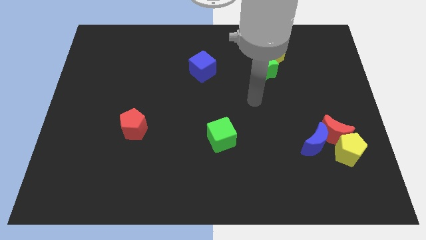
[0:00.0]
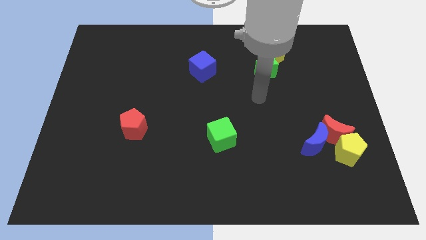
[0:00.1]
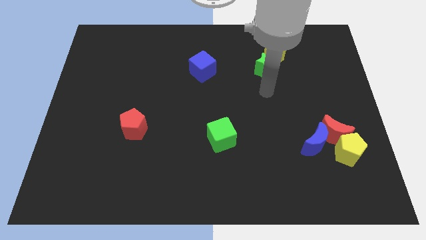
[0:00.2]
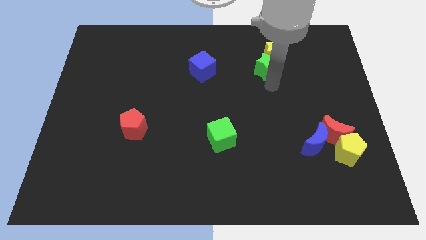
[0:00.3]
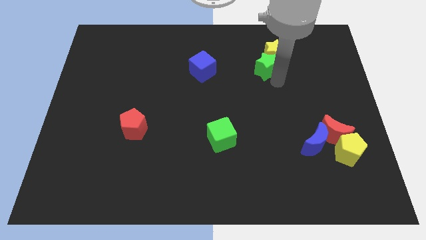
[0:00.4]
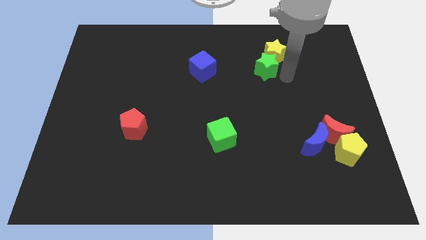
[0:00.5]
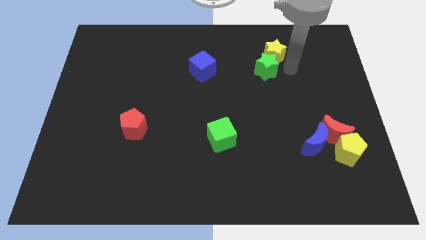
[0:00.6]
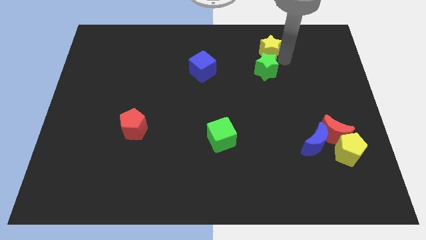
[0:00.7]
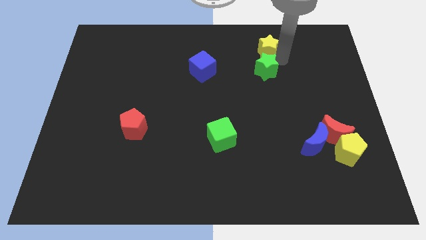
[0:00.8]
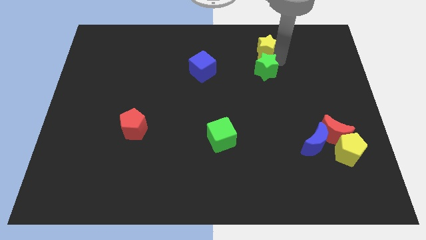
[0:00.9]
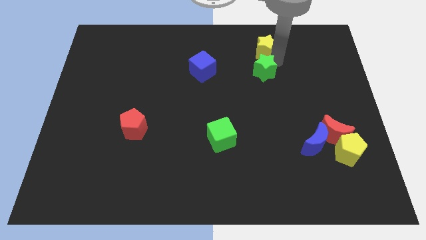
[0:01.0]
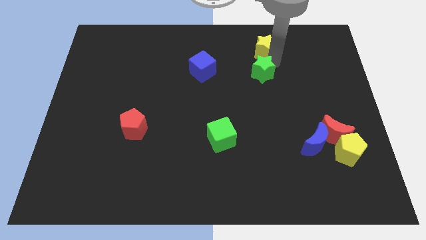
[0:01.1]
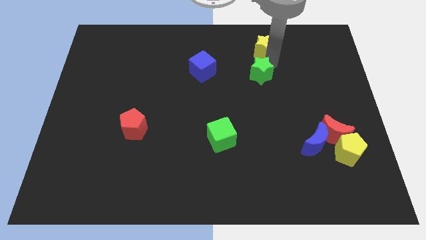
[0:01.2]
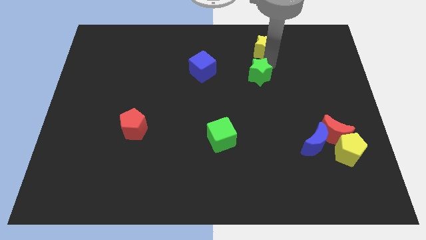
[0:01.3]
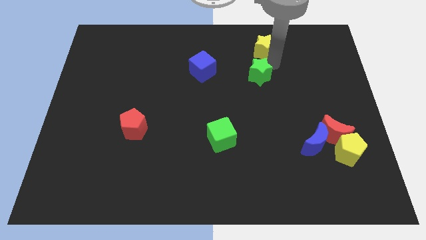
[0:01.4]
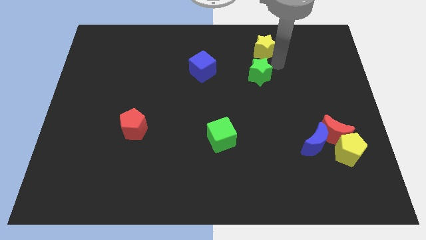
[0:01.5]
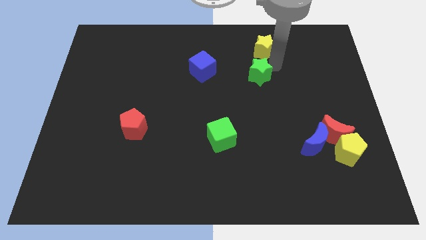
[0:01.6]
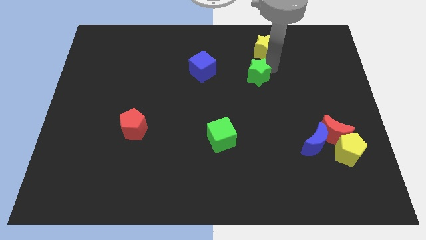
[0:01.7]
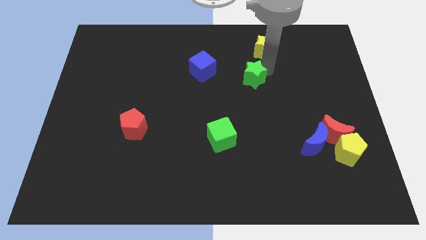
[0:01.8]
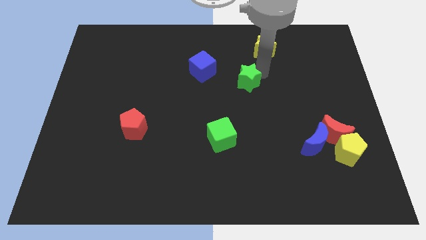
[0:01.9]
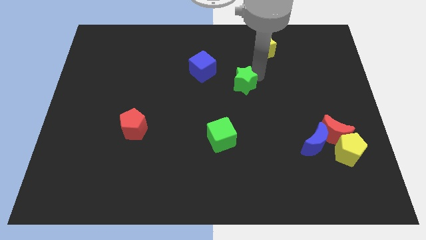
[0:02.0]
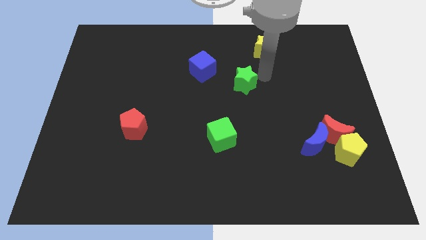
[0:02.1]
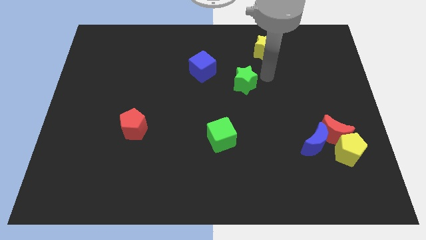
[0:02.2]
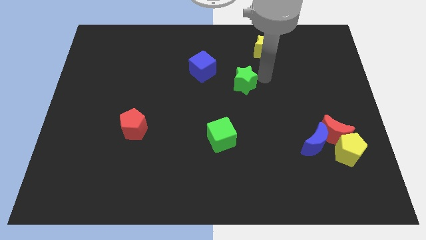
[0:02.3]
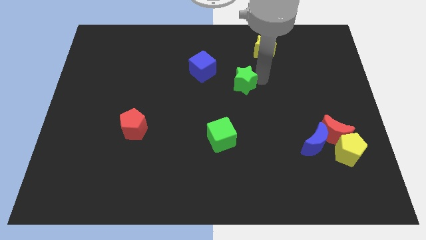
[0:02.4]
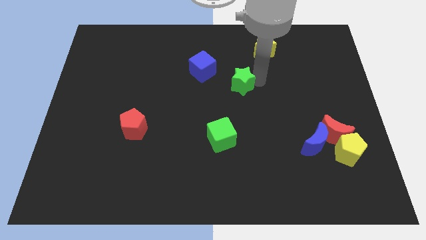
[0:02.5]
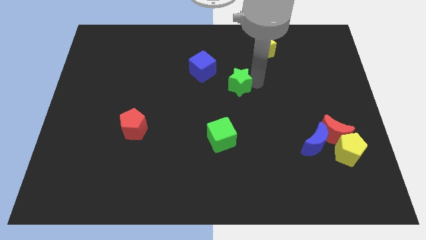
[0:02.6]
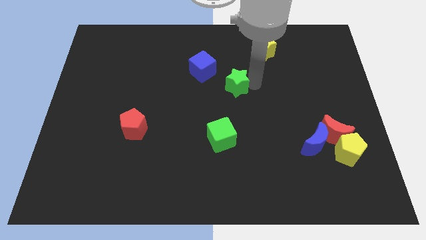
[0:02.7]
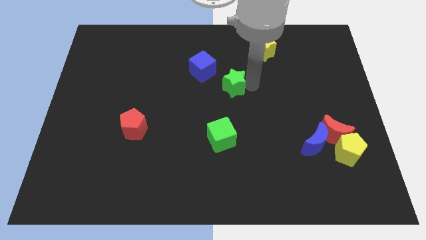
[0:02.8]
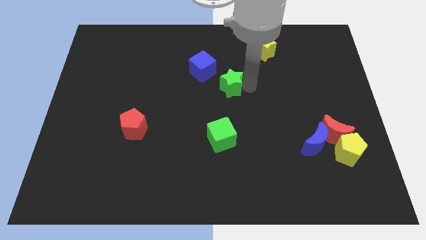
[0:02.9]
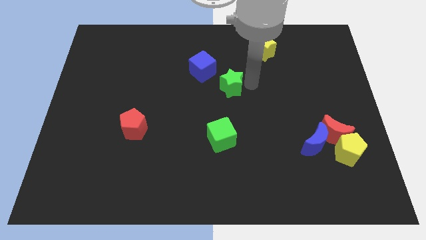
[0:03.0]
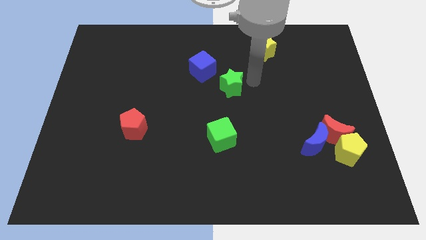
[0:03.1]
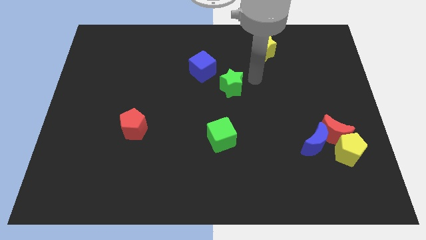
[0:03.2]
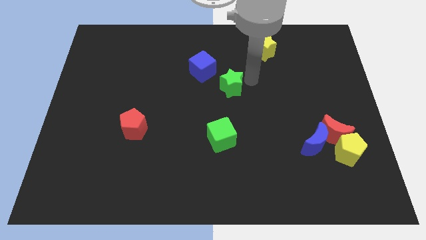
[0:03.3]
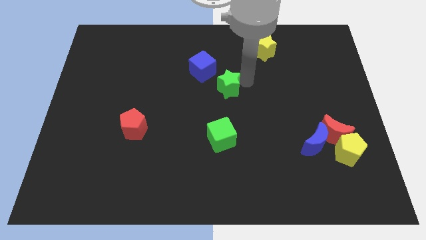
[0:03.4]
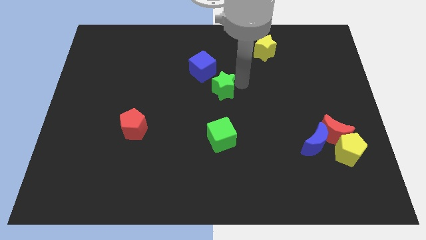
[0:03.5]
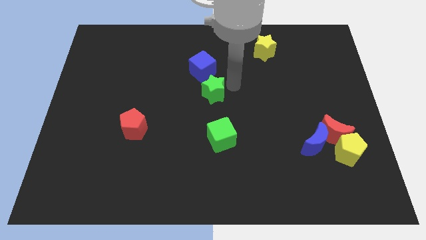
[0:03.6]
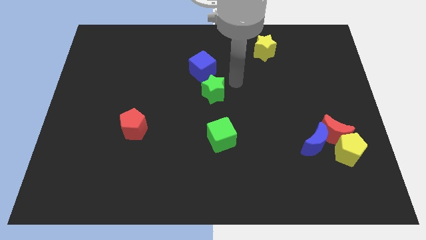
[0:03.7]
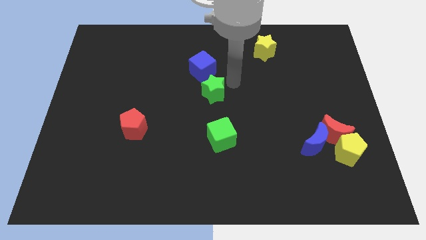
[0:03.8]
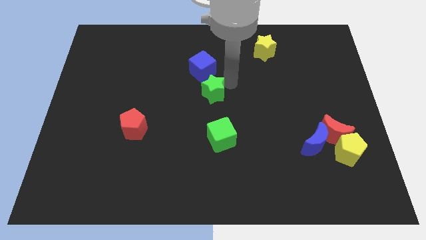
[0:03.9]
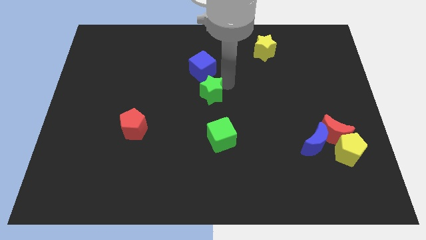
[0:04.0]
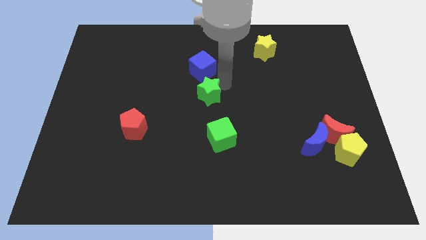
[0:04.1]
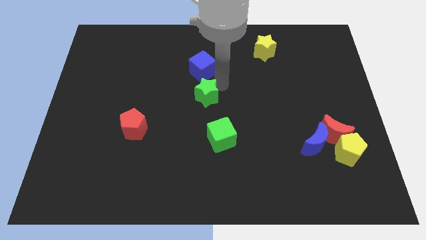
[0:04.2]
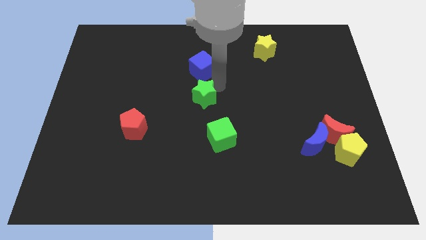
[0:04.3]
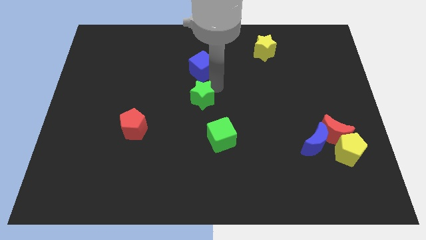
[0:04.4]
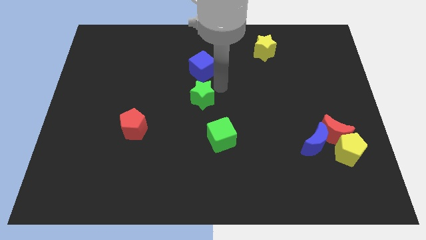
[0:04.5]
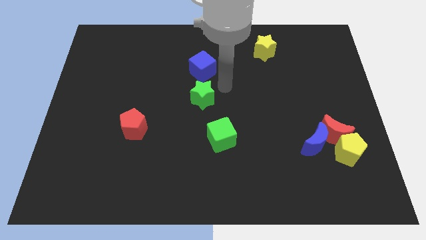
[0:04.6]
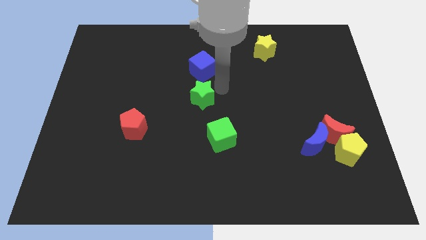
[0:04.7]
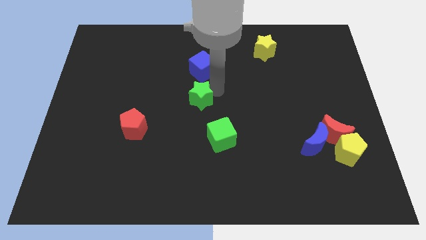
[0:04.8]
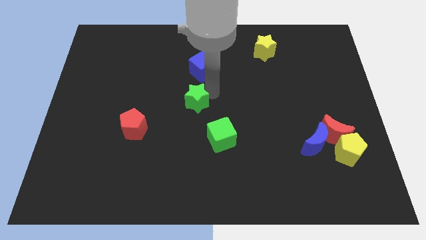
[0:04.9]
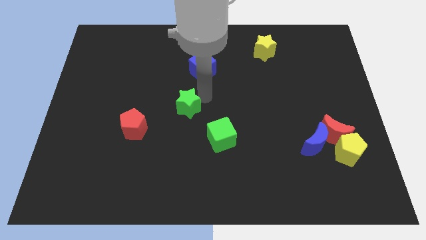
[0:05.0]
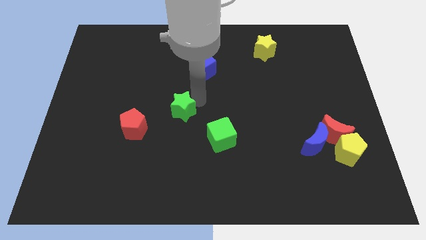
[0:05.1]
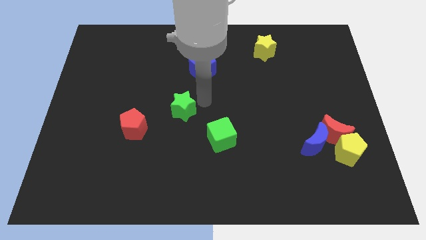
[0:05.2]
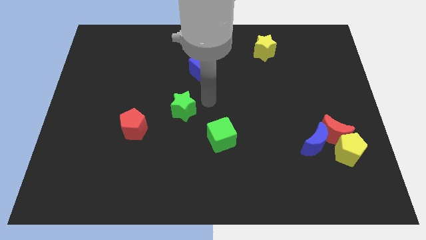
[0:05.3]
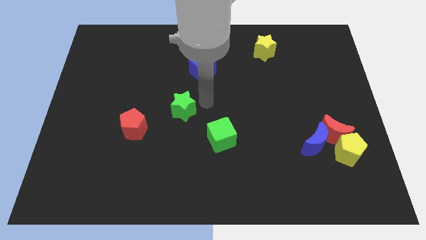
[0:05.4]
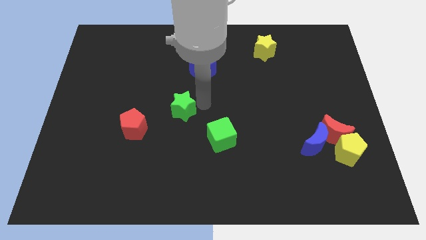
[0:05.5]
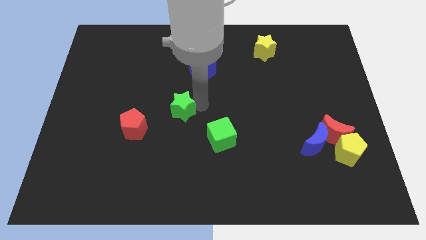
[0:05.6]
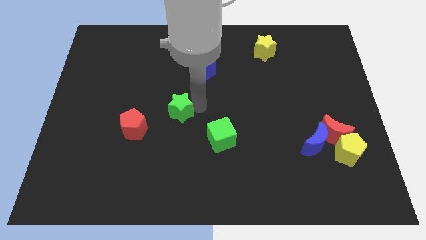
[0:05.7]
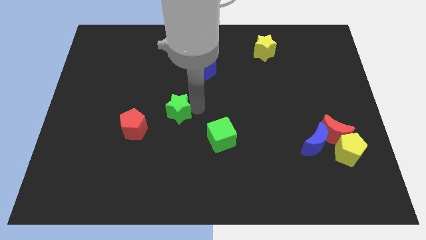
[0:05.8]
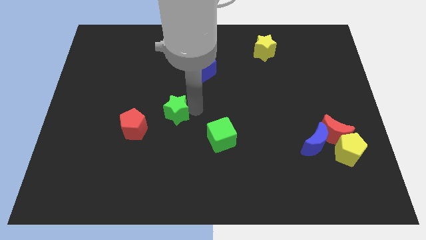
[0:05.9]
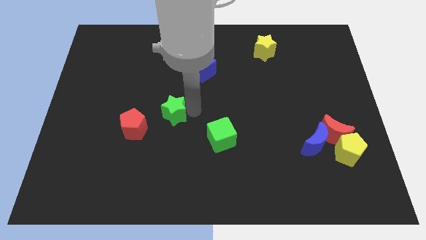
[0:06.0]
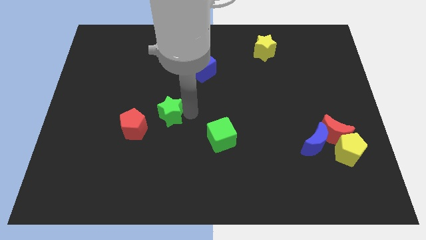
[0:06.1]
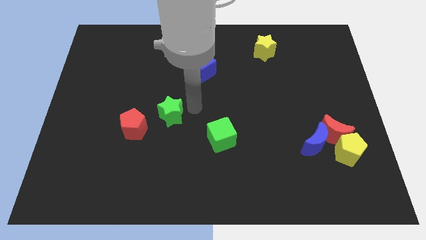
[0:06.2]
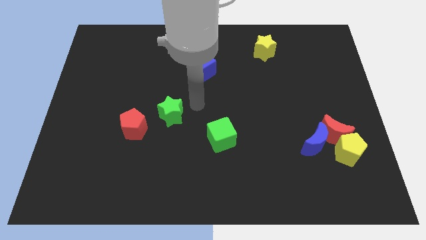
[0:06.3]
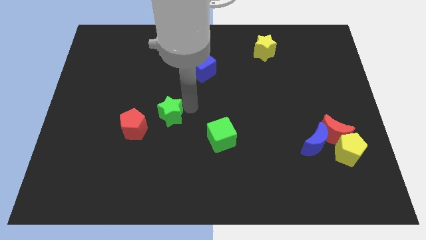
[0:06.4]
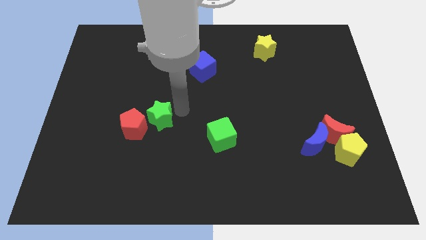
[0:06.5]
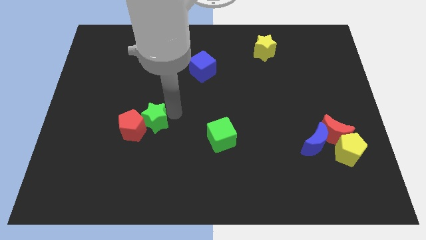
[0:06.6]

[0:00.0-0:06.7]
move the green star to the red pentagon

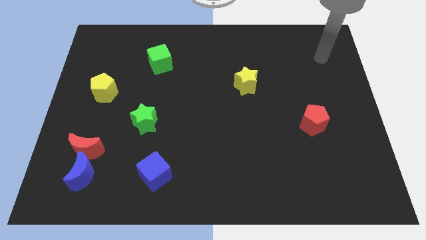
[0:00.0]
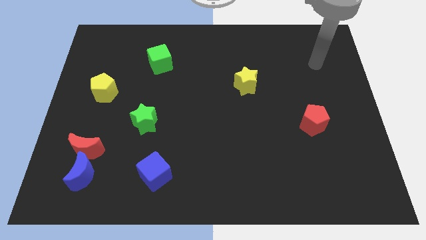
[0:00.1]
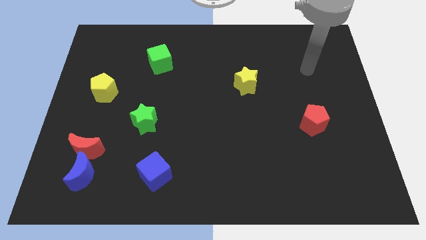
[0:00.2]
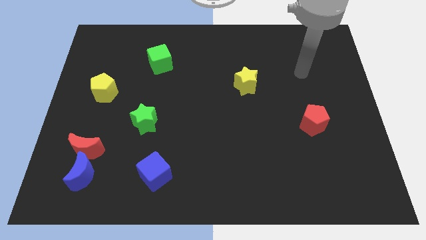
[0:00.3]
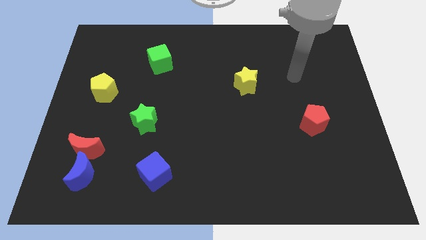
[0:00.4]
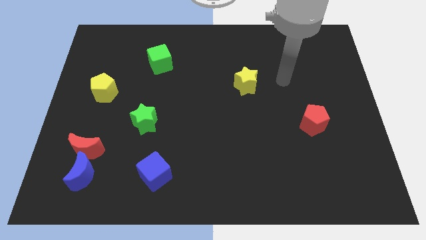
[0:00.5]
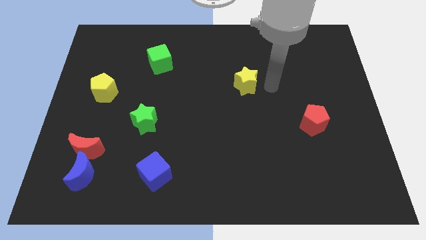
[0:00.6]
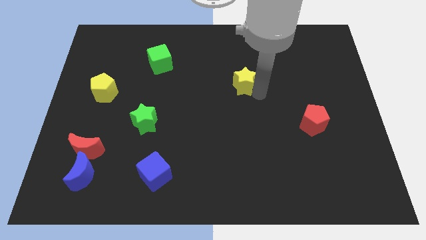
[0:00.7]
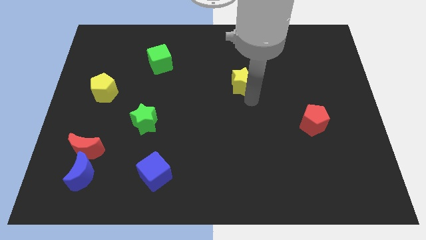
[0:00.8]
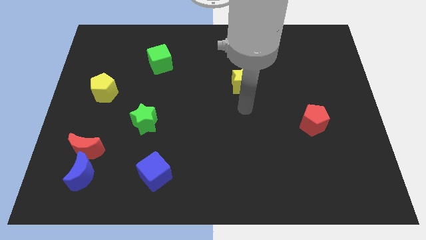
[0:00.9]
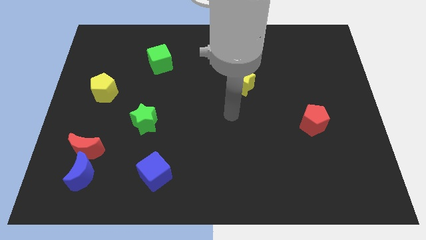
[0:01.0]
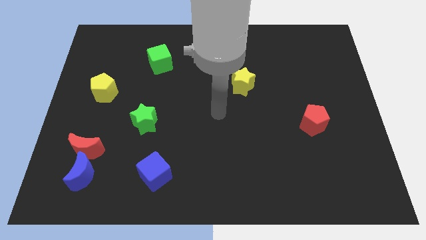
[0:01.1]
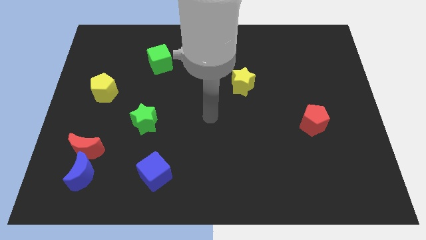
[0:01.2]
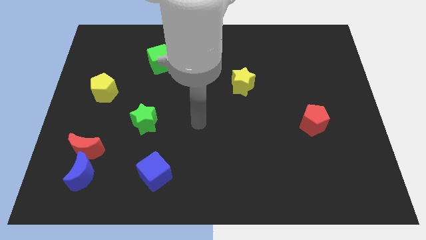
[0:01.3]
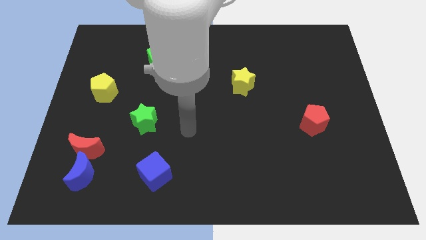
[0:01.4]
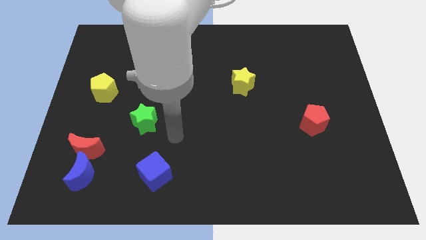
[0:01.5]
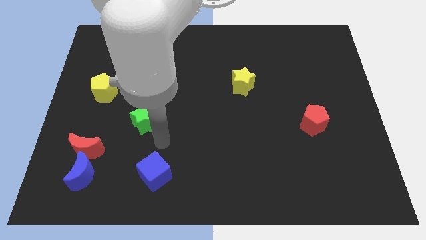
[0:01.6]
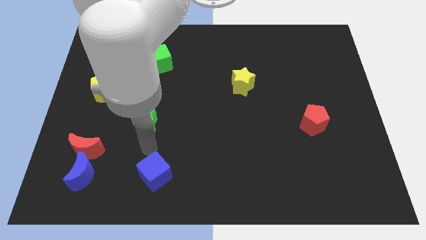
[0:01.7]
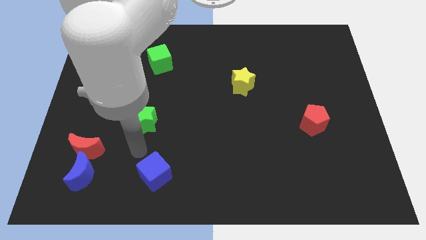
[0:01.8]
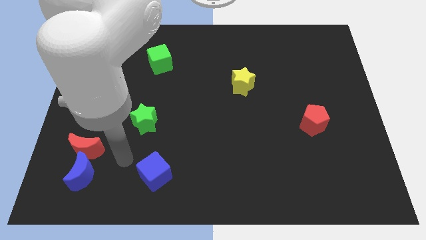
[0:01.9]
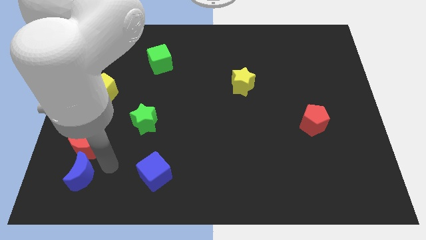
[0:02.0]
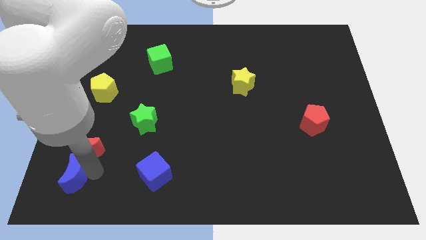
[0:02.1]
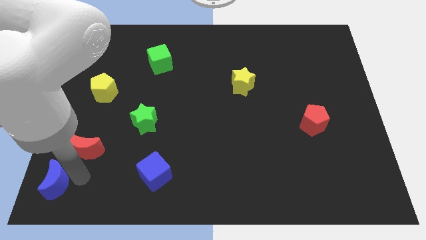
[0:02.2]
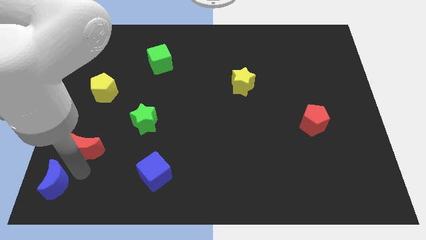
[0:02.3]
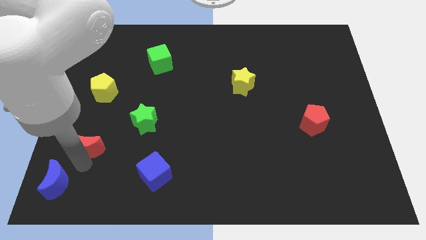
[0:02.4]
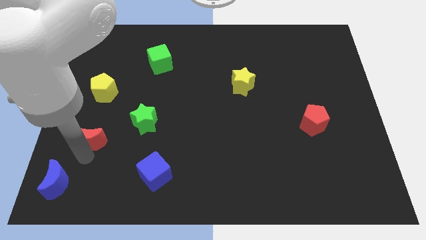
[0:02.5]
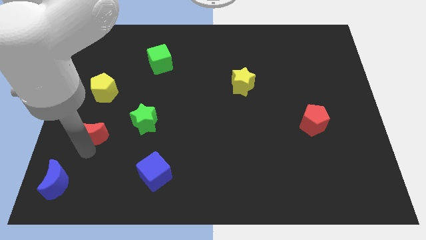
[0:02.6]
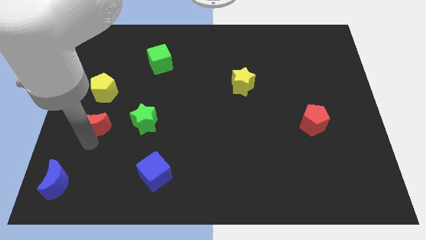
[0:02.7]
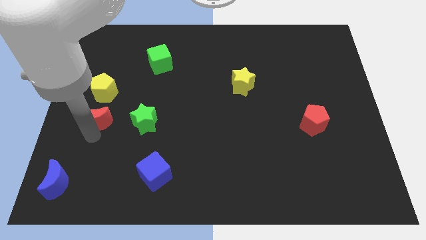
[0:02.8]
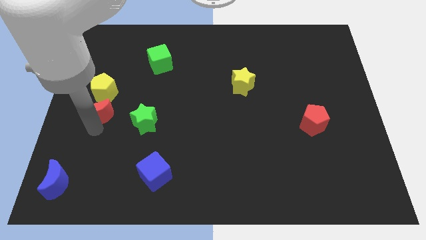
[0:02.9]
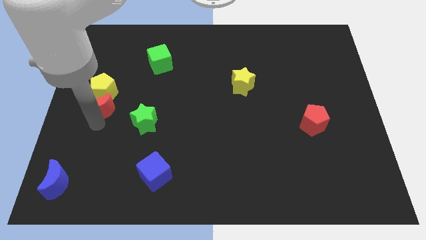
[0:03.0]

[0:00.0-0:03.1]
put the red moon towards the yellow pentagon
